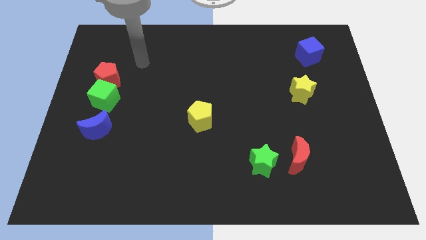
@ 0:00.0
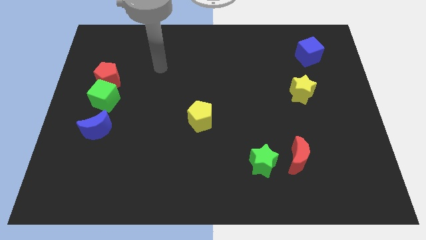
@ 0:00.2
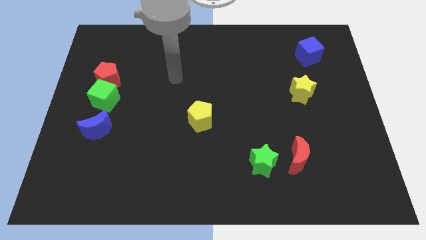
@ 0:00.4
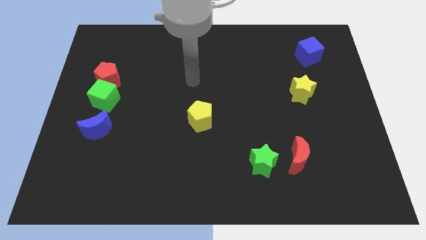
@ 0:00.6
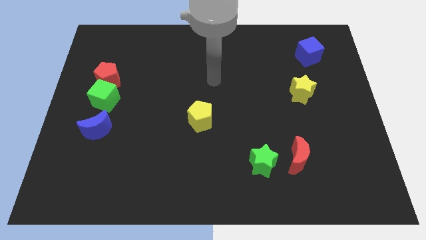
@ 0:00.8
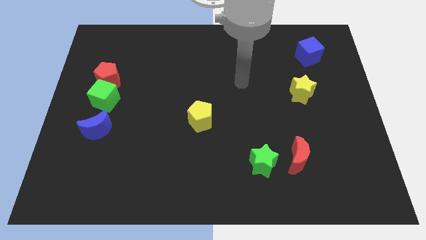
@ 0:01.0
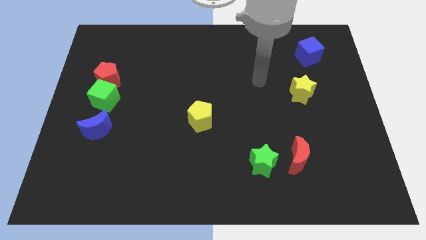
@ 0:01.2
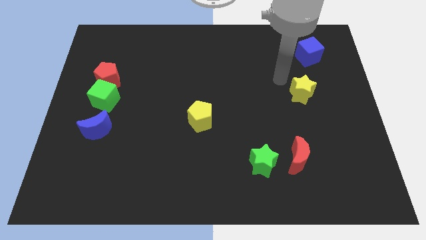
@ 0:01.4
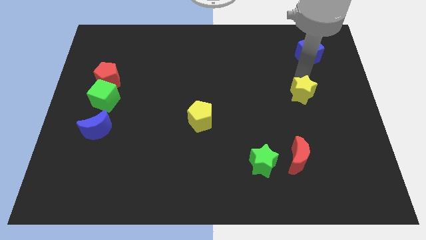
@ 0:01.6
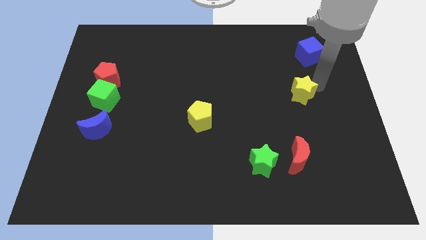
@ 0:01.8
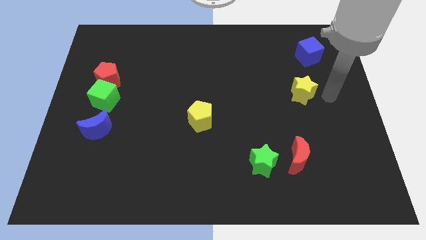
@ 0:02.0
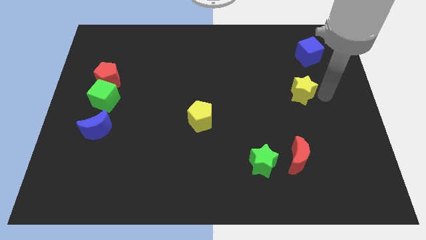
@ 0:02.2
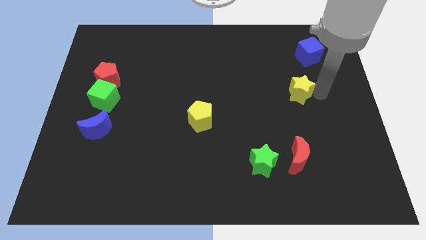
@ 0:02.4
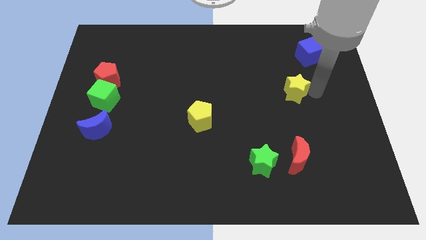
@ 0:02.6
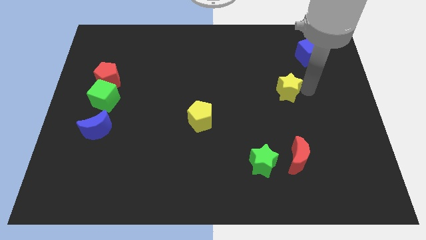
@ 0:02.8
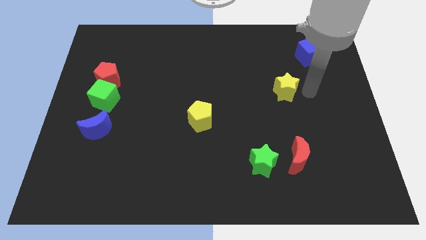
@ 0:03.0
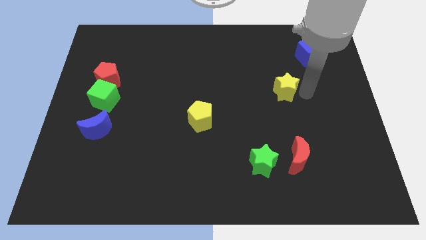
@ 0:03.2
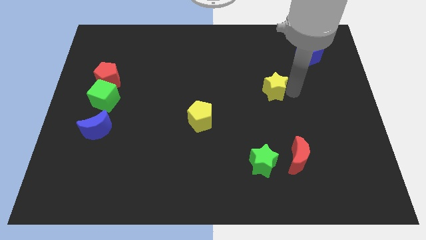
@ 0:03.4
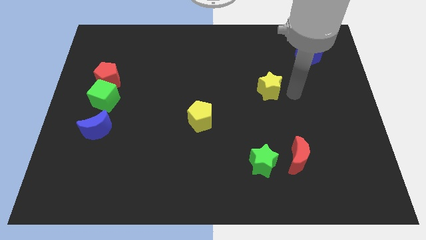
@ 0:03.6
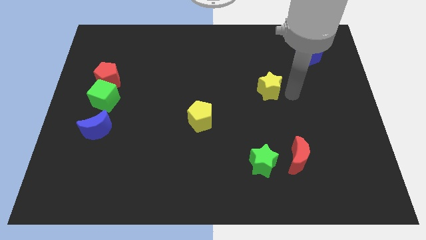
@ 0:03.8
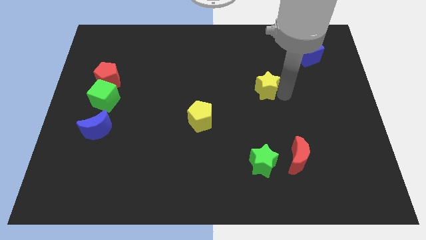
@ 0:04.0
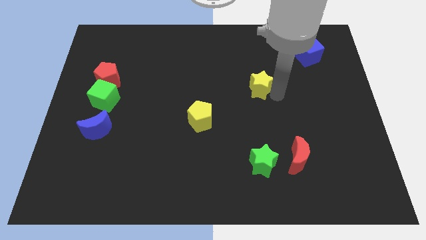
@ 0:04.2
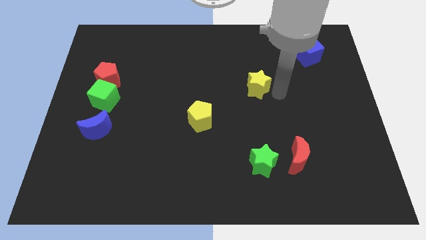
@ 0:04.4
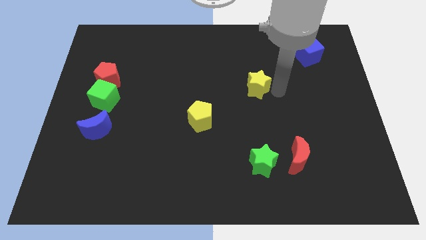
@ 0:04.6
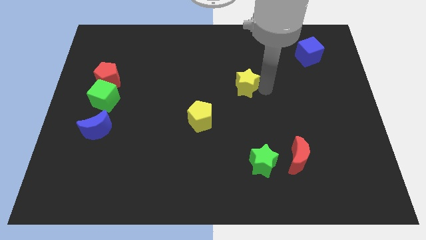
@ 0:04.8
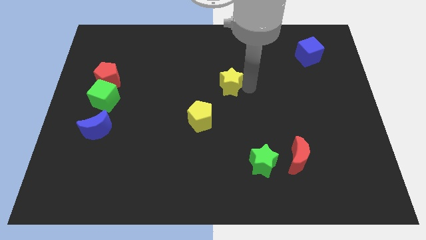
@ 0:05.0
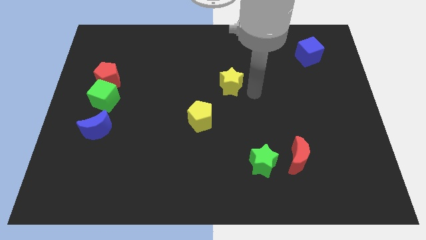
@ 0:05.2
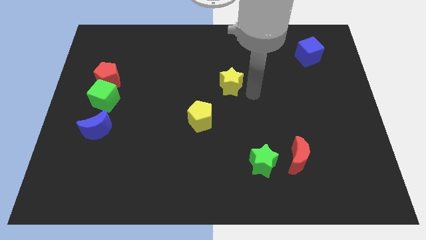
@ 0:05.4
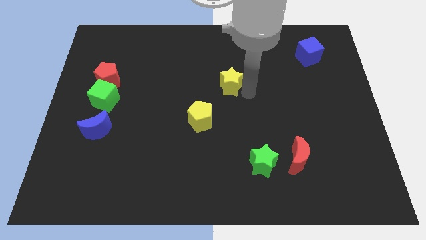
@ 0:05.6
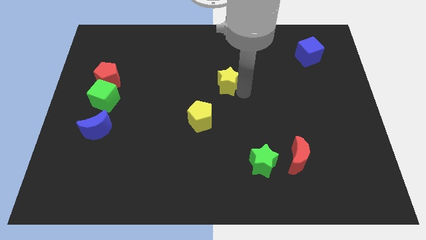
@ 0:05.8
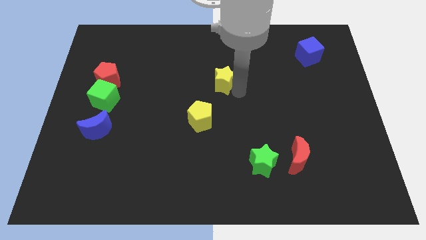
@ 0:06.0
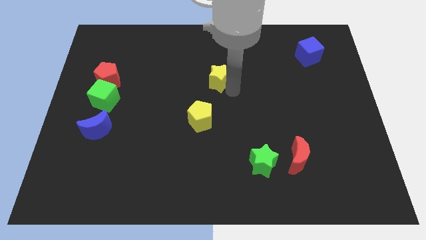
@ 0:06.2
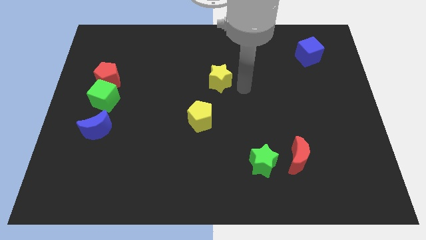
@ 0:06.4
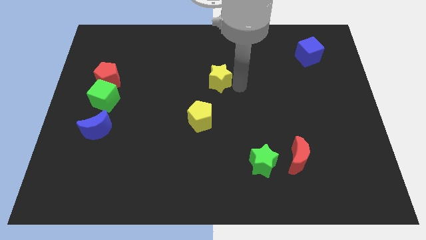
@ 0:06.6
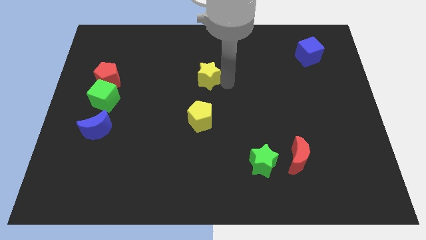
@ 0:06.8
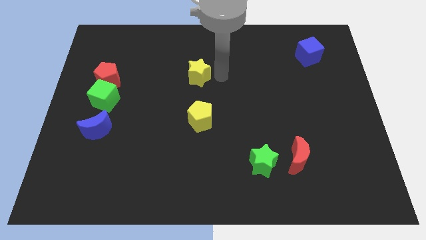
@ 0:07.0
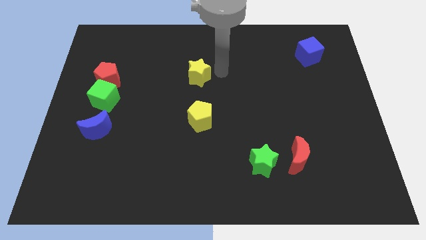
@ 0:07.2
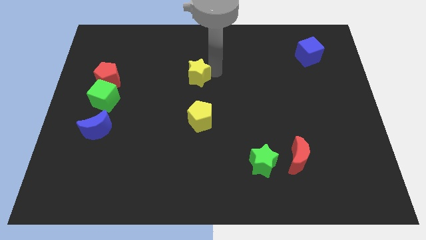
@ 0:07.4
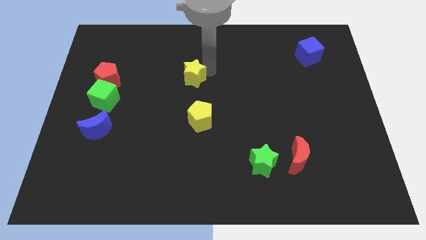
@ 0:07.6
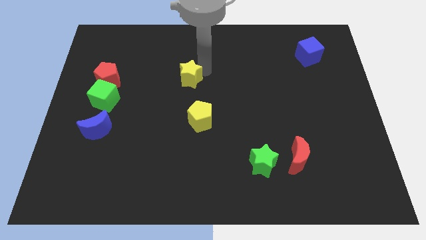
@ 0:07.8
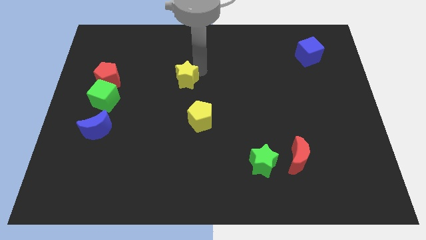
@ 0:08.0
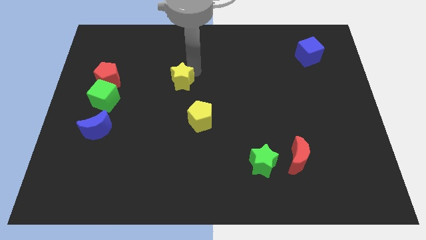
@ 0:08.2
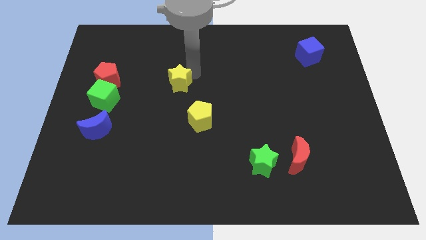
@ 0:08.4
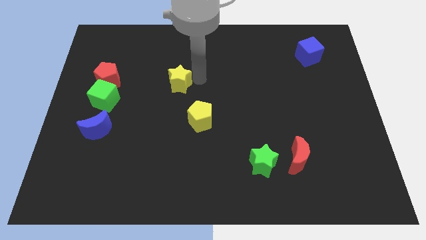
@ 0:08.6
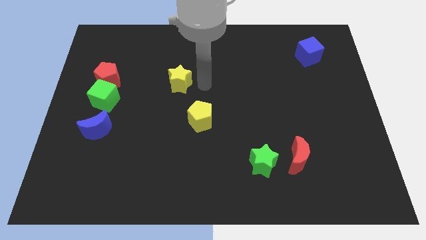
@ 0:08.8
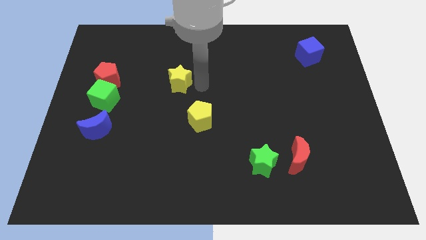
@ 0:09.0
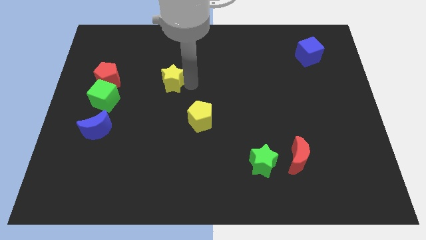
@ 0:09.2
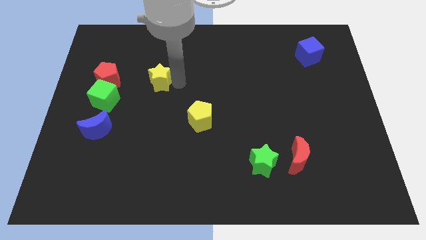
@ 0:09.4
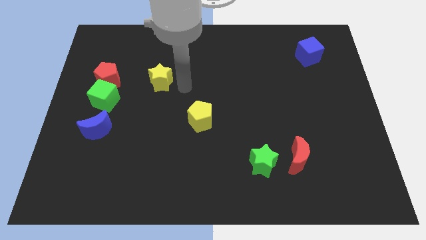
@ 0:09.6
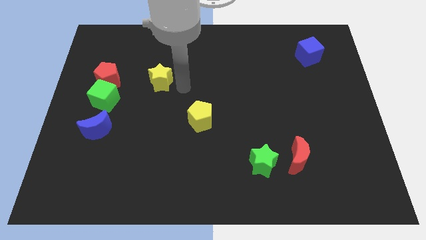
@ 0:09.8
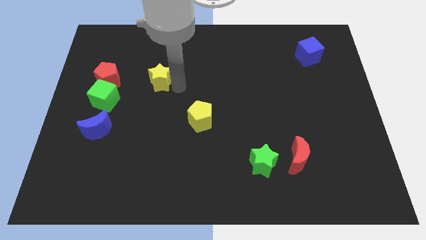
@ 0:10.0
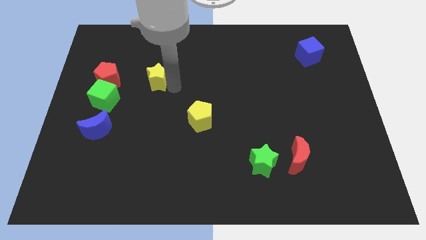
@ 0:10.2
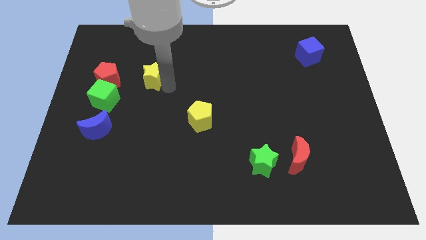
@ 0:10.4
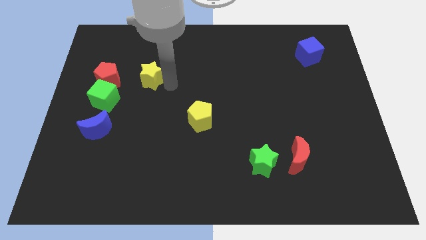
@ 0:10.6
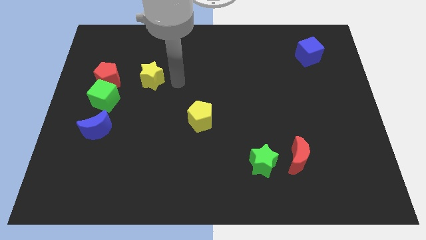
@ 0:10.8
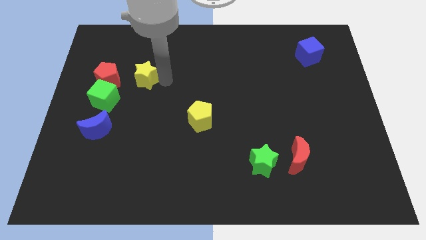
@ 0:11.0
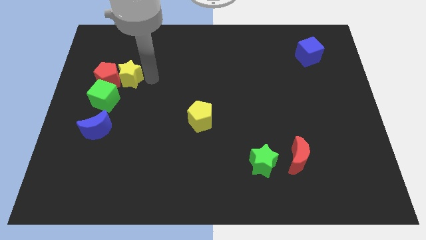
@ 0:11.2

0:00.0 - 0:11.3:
slide the yellow star to the red pentagon
